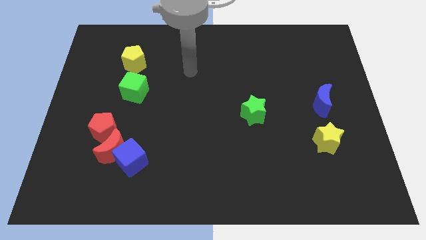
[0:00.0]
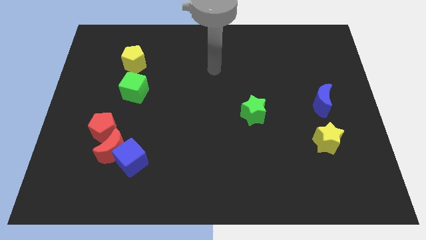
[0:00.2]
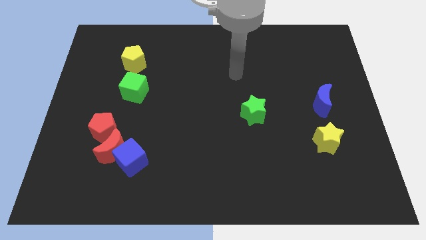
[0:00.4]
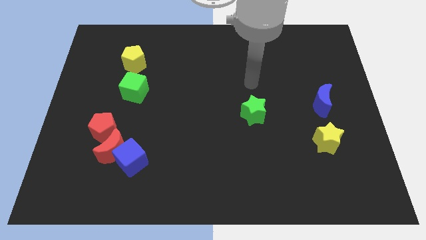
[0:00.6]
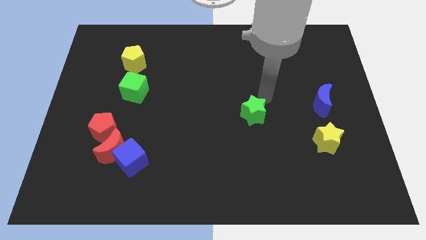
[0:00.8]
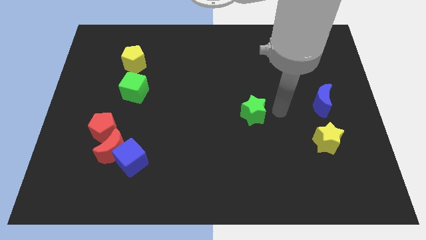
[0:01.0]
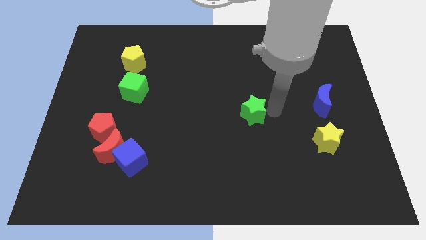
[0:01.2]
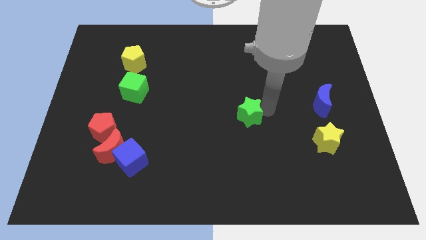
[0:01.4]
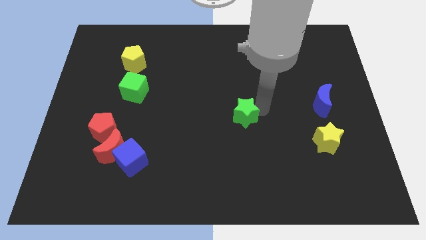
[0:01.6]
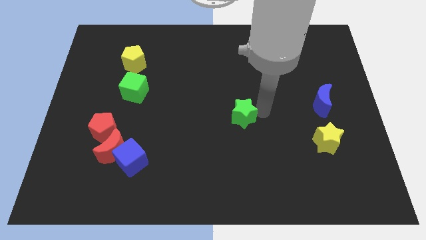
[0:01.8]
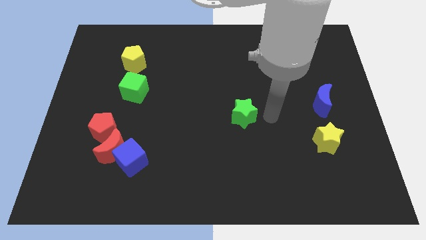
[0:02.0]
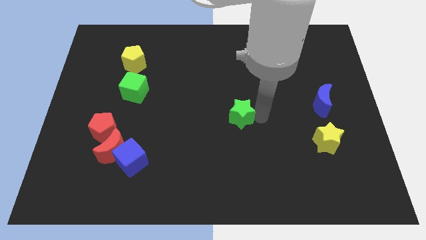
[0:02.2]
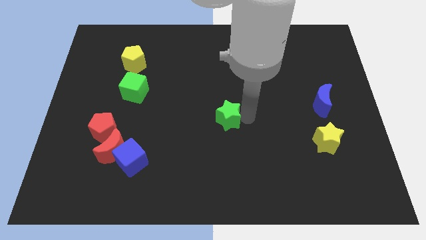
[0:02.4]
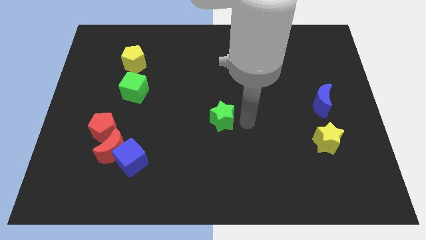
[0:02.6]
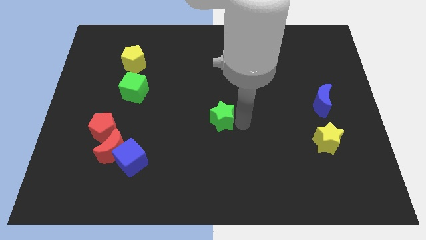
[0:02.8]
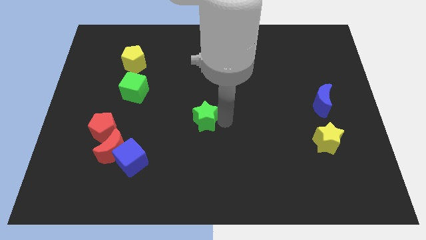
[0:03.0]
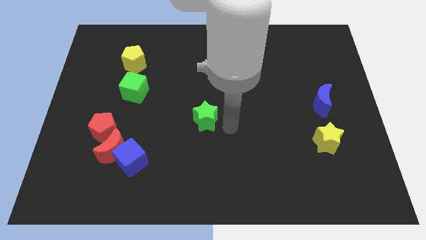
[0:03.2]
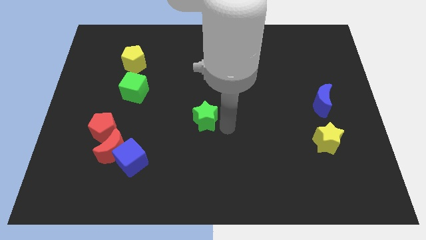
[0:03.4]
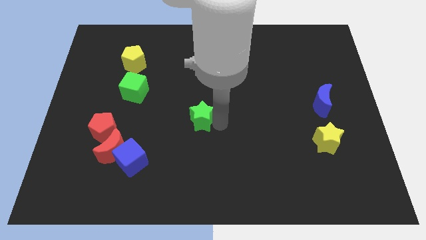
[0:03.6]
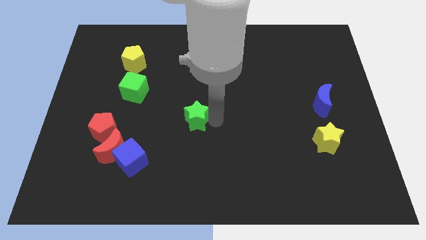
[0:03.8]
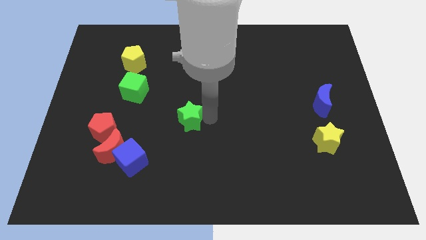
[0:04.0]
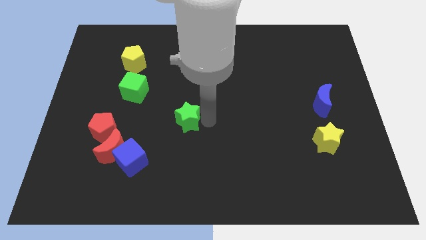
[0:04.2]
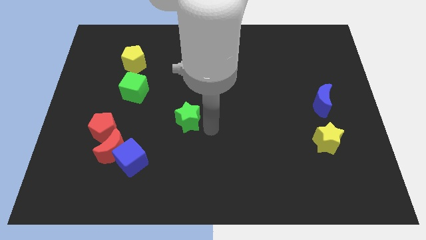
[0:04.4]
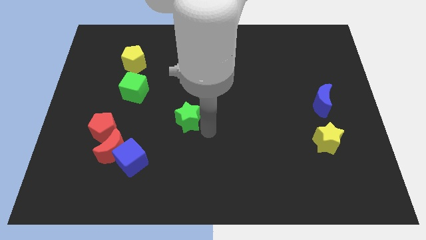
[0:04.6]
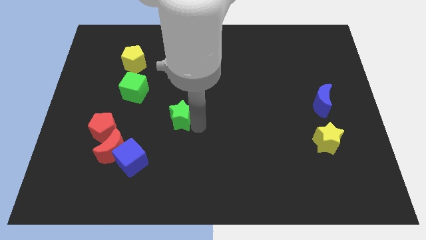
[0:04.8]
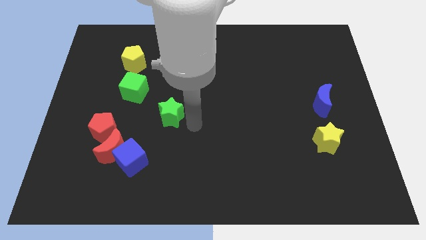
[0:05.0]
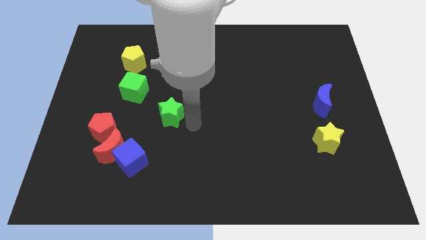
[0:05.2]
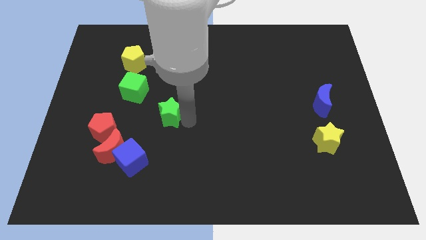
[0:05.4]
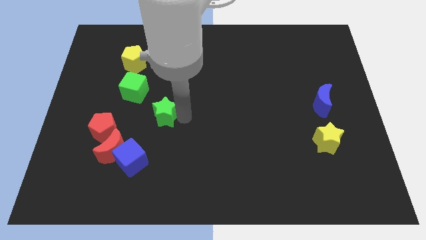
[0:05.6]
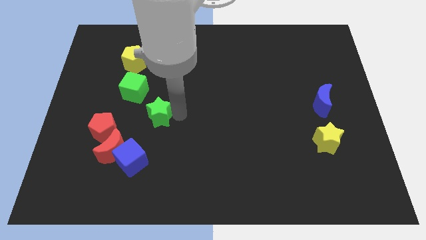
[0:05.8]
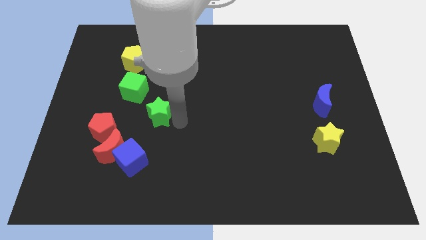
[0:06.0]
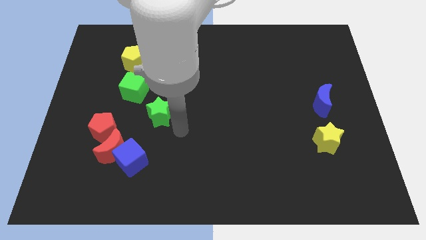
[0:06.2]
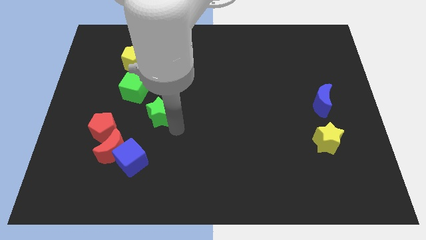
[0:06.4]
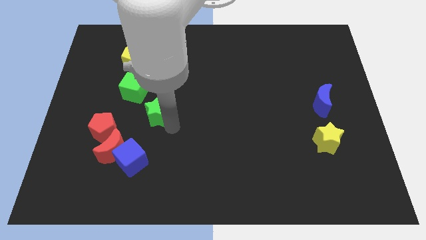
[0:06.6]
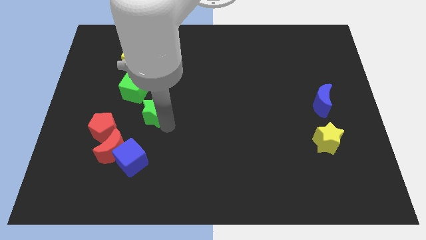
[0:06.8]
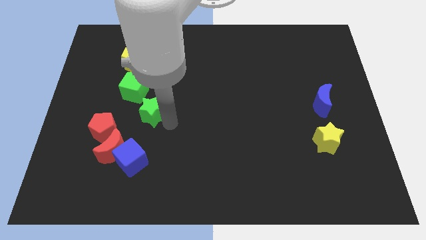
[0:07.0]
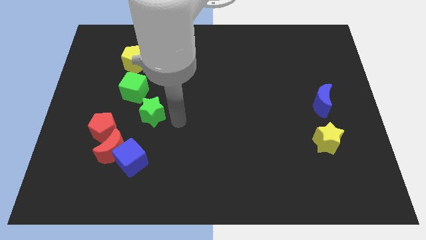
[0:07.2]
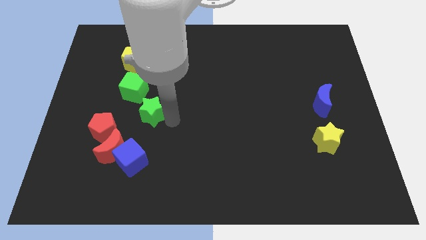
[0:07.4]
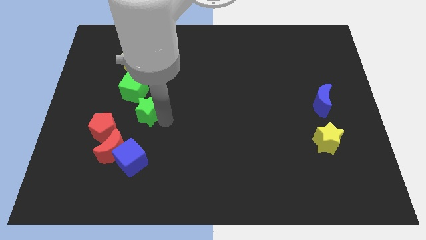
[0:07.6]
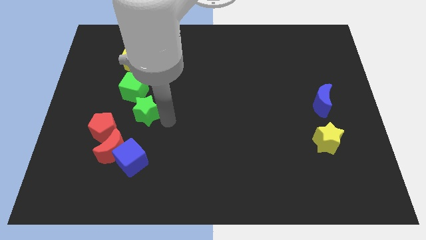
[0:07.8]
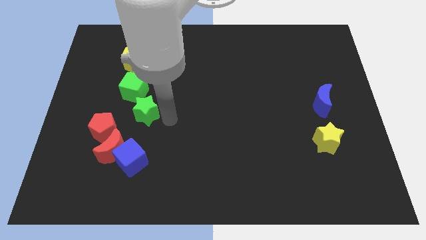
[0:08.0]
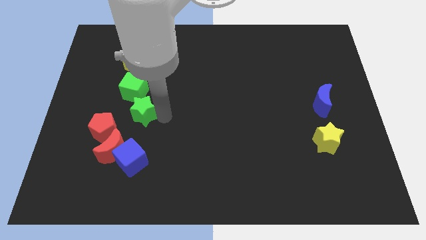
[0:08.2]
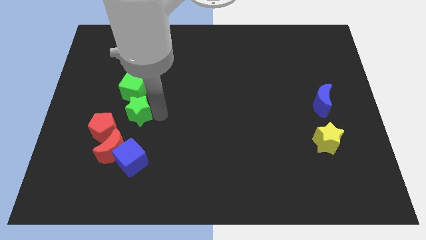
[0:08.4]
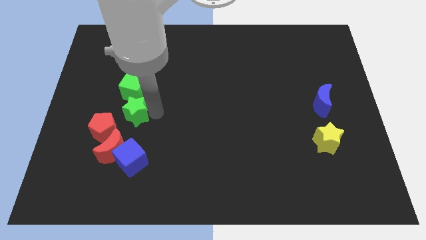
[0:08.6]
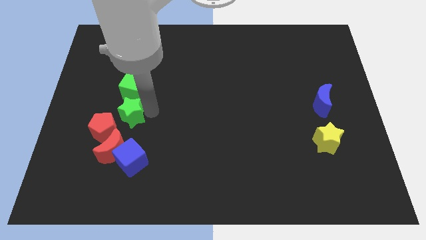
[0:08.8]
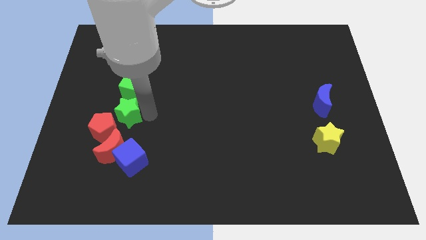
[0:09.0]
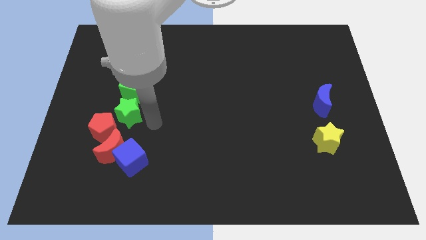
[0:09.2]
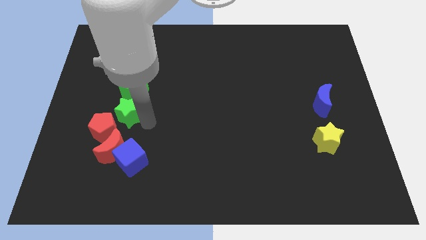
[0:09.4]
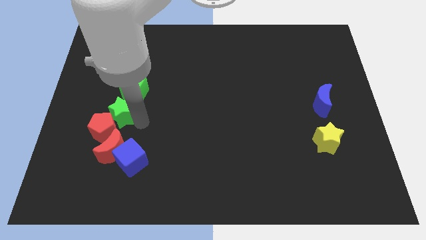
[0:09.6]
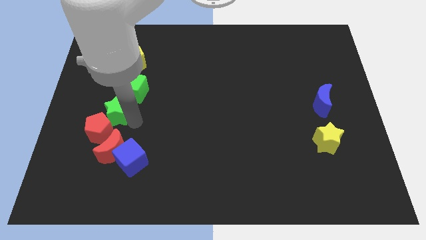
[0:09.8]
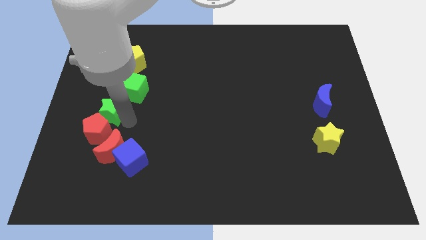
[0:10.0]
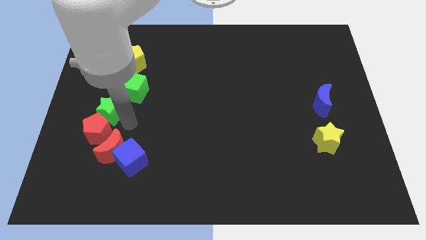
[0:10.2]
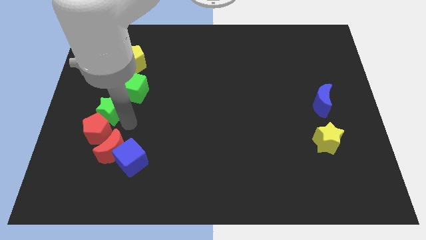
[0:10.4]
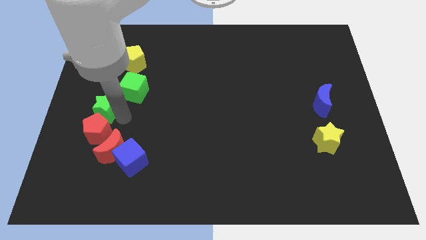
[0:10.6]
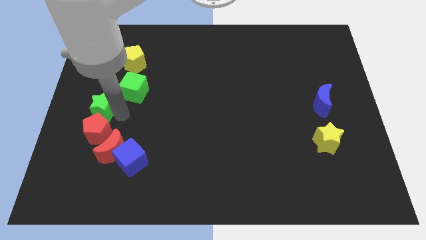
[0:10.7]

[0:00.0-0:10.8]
slide the green star to the left side of the board

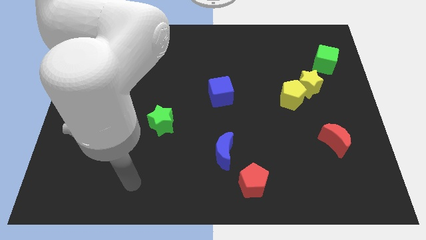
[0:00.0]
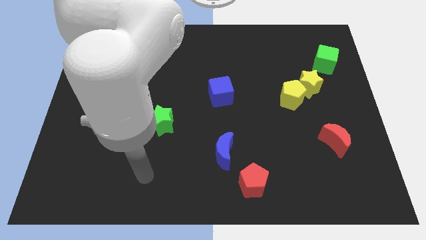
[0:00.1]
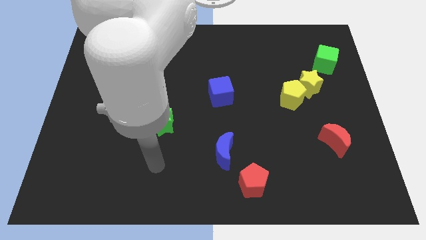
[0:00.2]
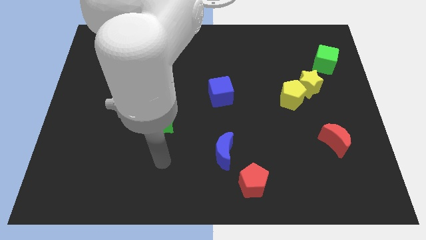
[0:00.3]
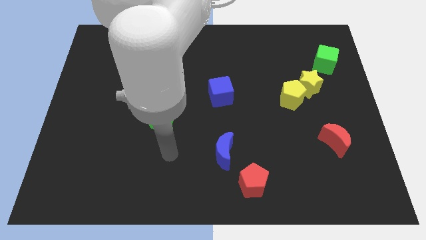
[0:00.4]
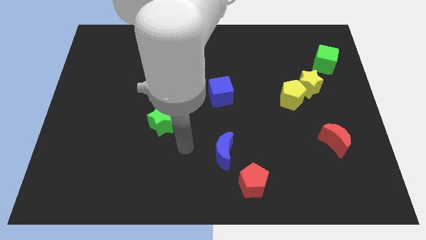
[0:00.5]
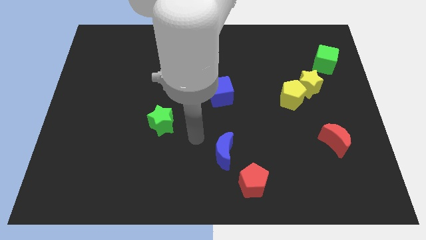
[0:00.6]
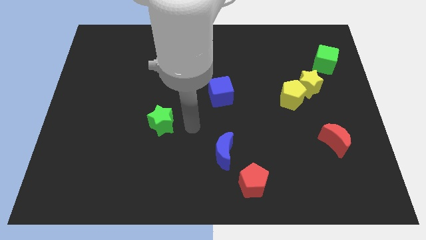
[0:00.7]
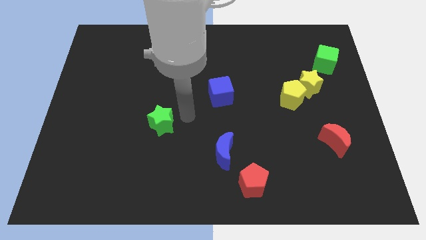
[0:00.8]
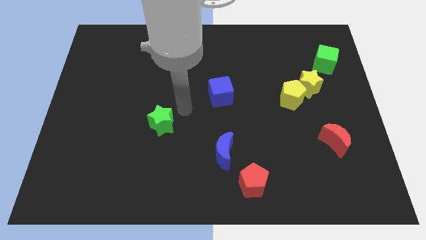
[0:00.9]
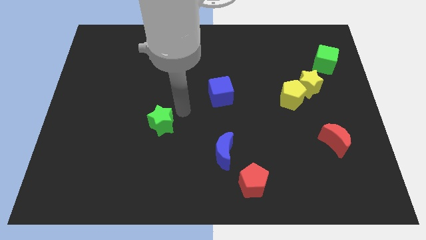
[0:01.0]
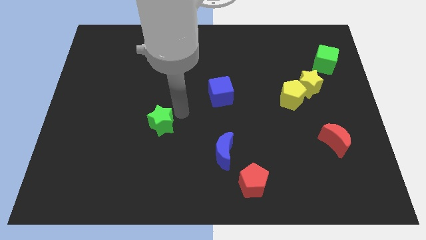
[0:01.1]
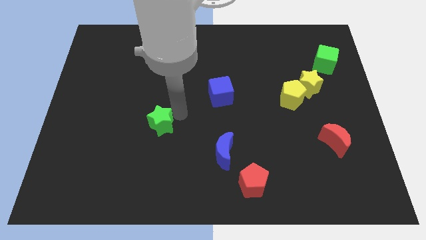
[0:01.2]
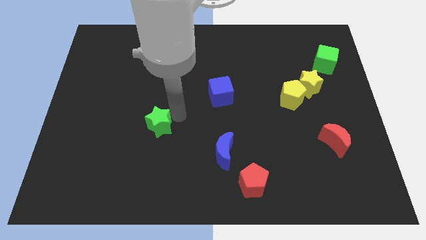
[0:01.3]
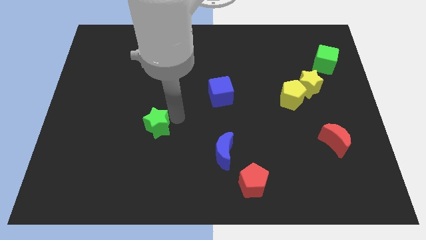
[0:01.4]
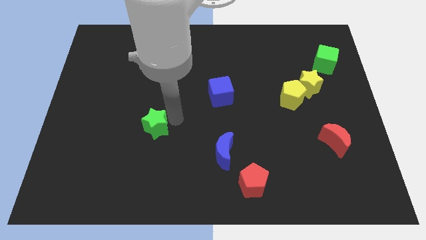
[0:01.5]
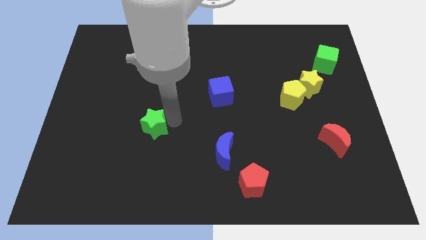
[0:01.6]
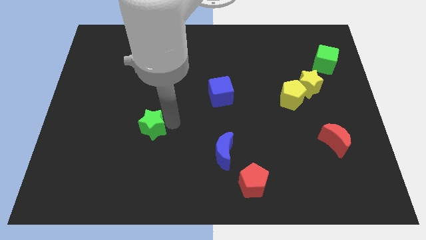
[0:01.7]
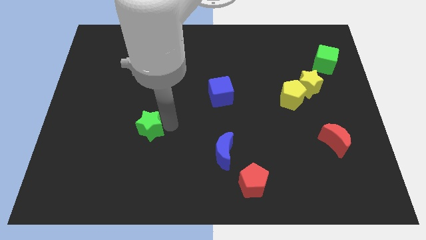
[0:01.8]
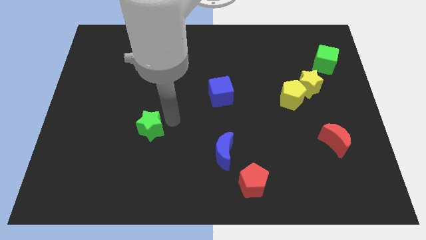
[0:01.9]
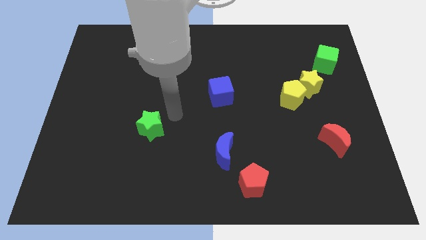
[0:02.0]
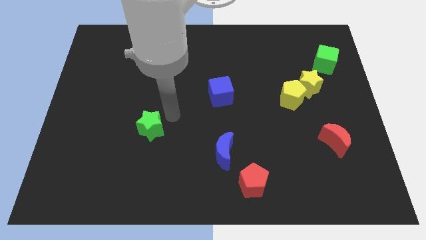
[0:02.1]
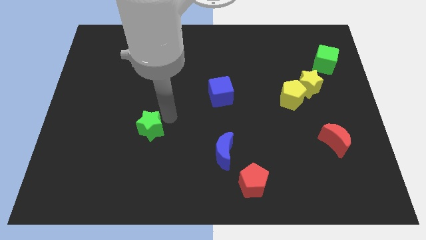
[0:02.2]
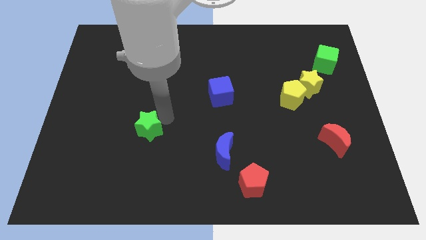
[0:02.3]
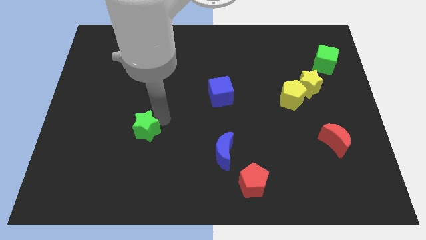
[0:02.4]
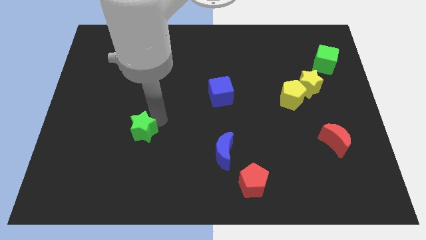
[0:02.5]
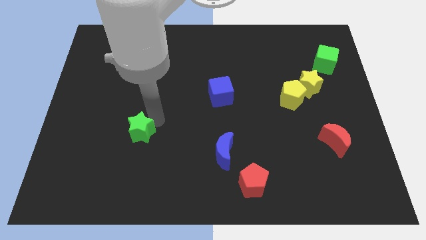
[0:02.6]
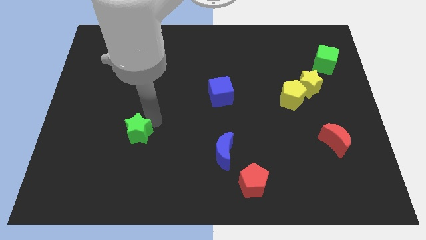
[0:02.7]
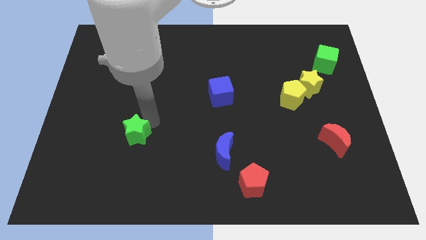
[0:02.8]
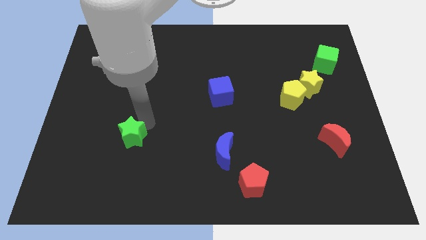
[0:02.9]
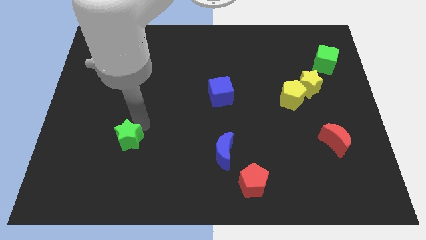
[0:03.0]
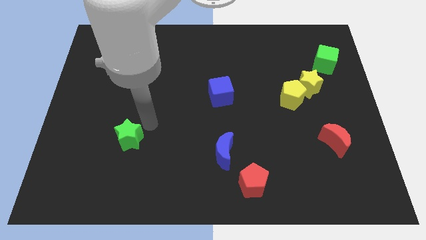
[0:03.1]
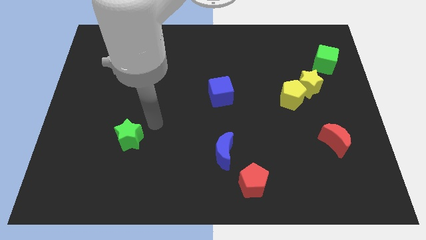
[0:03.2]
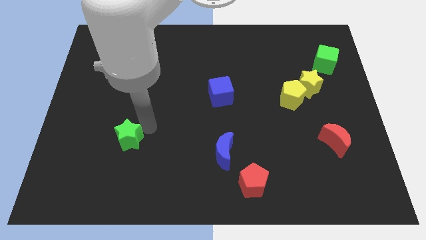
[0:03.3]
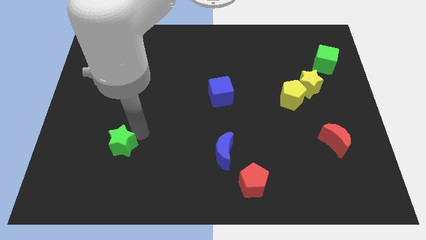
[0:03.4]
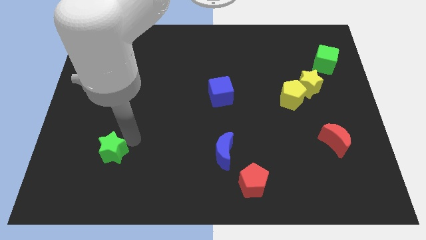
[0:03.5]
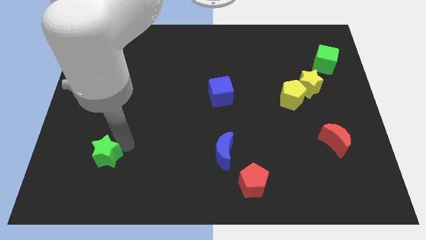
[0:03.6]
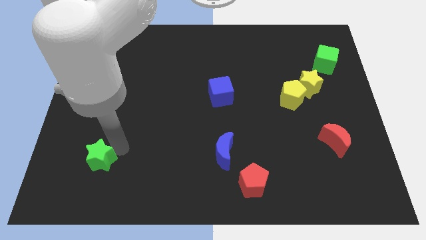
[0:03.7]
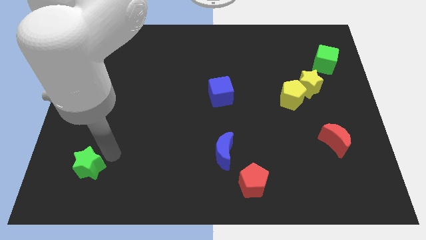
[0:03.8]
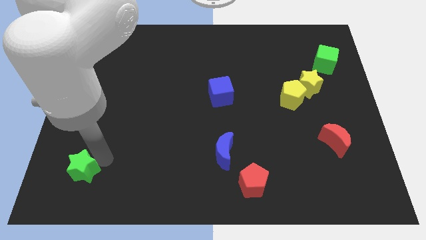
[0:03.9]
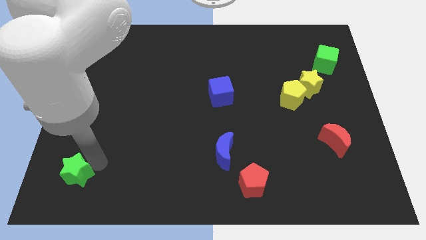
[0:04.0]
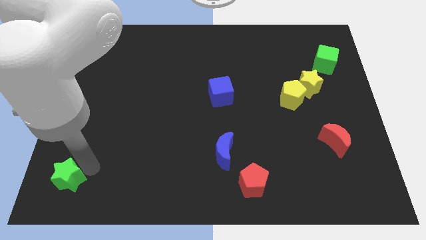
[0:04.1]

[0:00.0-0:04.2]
push the green star to the bottom left of the board
